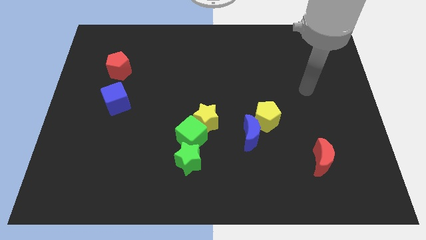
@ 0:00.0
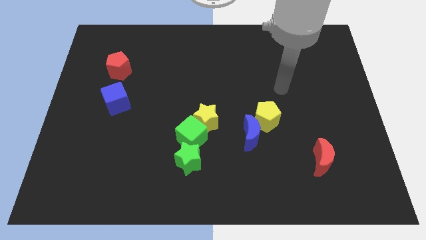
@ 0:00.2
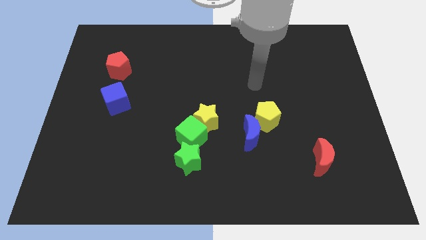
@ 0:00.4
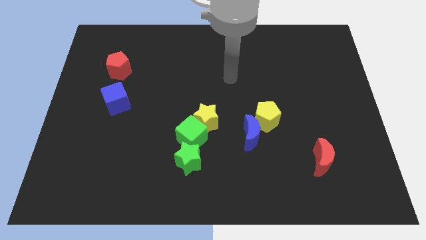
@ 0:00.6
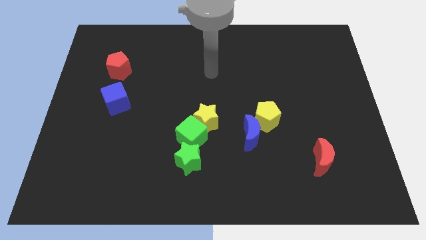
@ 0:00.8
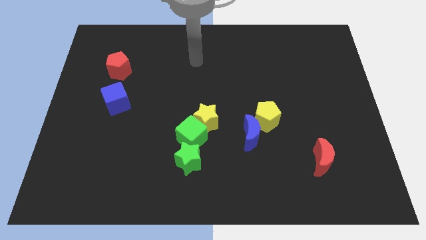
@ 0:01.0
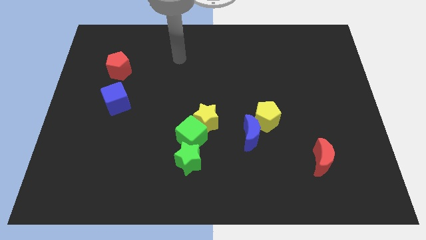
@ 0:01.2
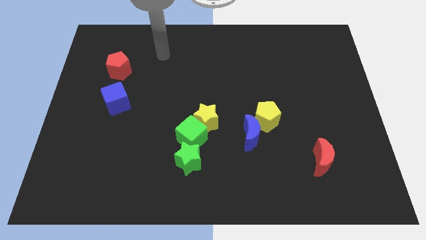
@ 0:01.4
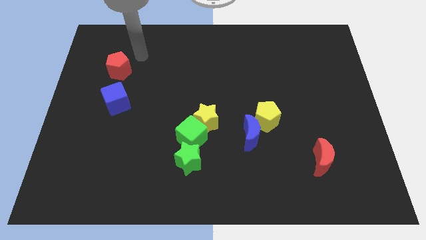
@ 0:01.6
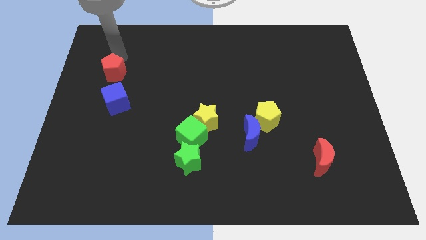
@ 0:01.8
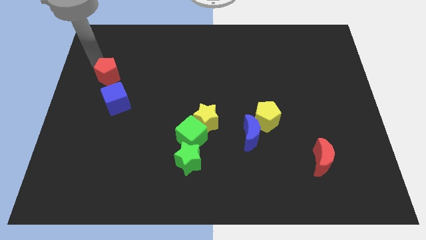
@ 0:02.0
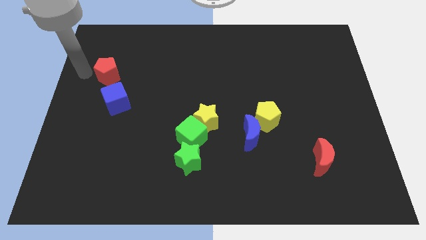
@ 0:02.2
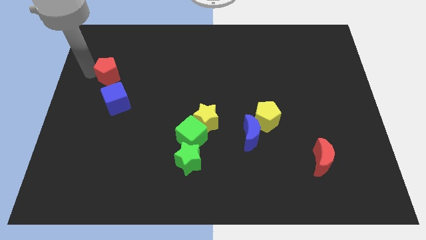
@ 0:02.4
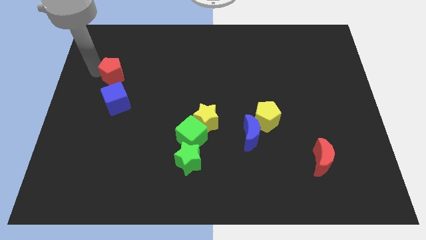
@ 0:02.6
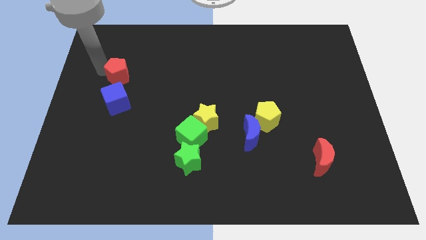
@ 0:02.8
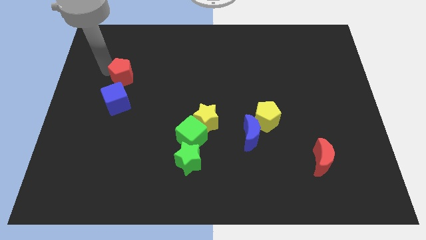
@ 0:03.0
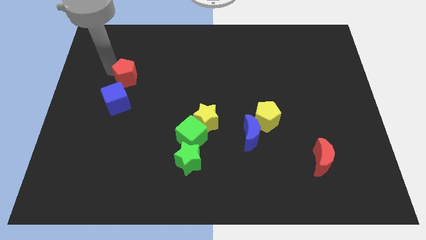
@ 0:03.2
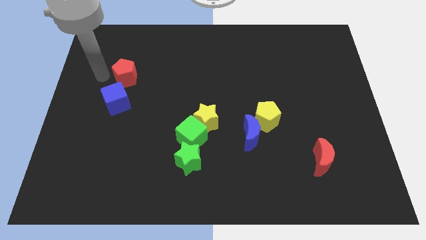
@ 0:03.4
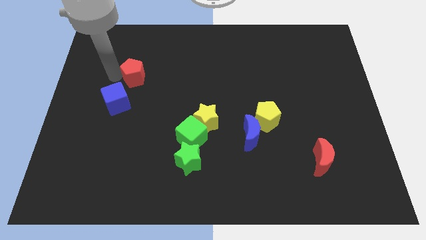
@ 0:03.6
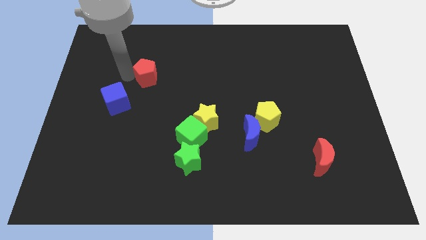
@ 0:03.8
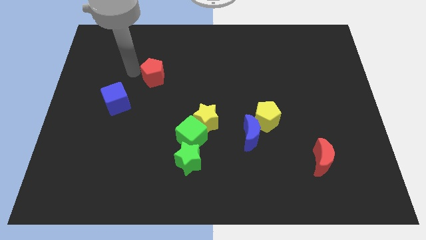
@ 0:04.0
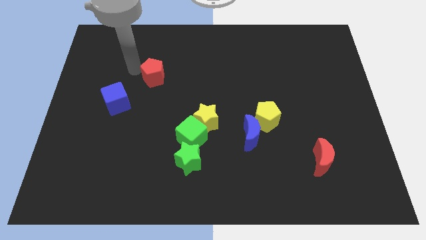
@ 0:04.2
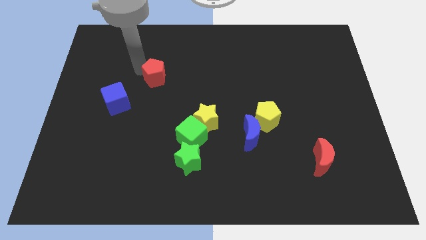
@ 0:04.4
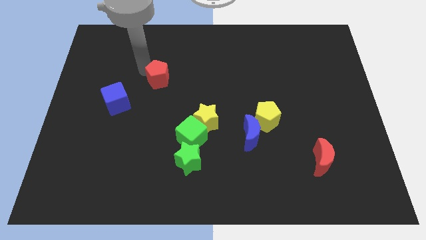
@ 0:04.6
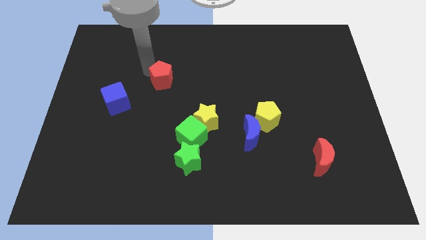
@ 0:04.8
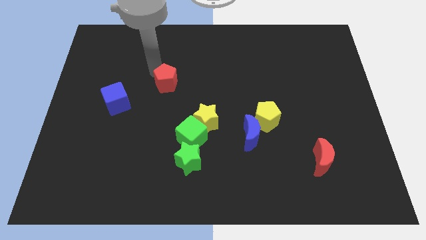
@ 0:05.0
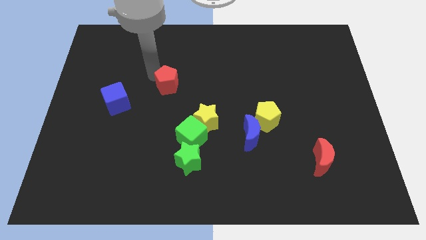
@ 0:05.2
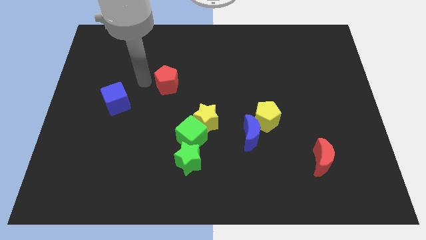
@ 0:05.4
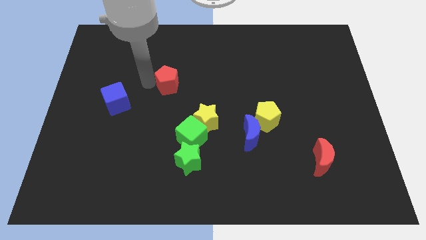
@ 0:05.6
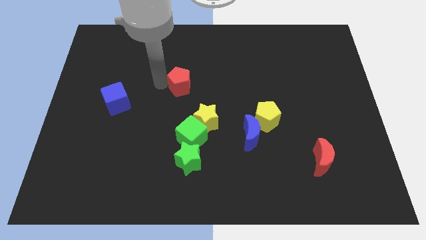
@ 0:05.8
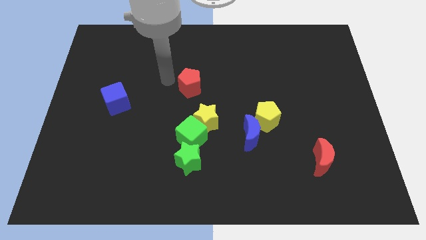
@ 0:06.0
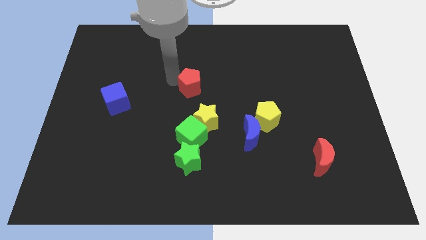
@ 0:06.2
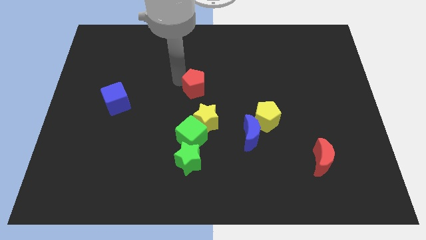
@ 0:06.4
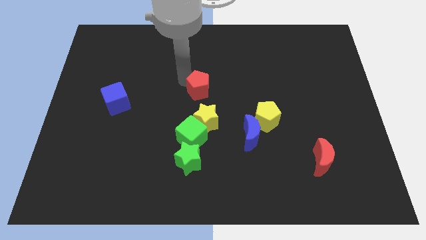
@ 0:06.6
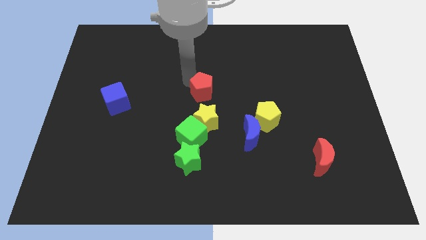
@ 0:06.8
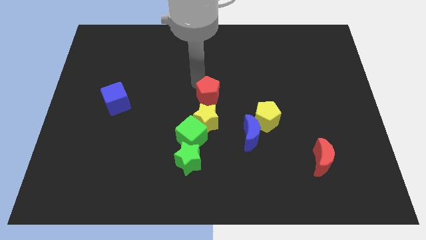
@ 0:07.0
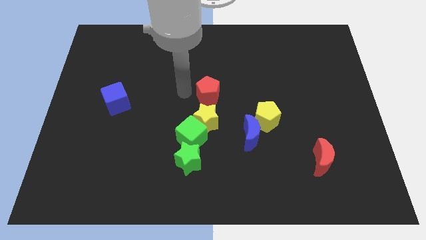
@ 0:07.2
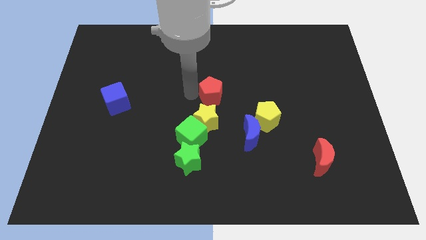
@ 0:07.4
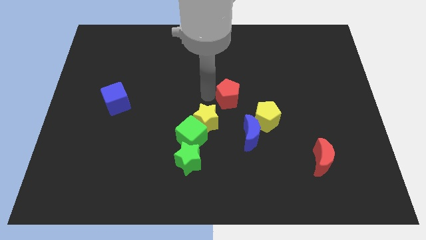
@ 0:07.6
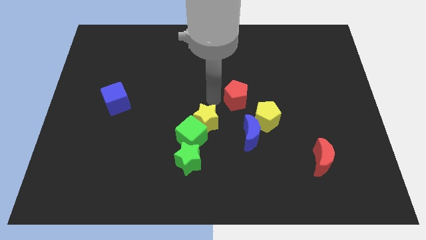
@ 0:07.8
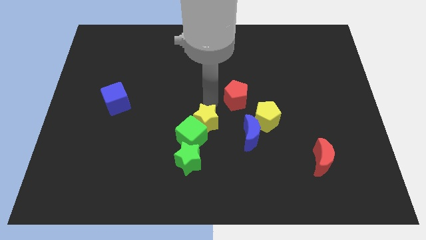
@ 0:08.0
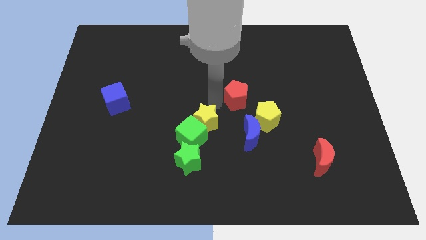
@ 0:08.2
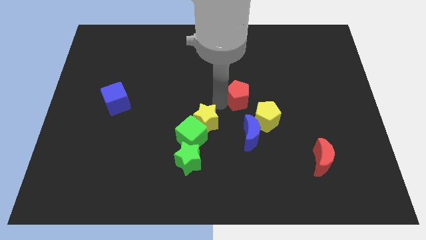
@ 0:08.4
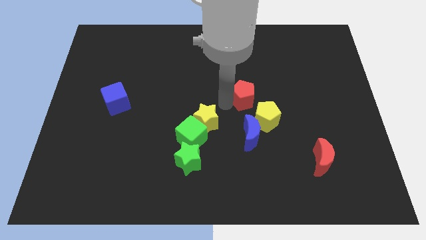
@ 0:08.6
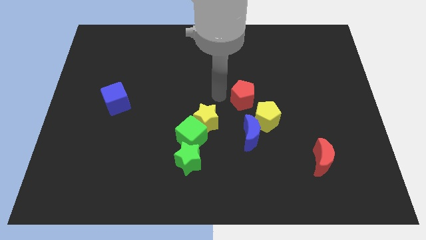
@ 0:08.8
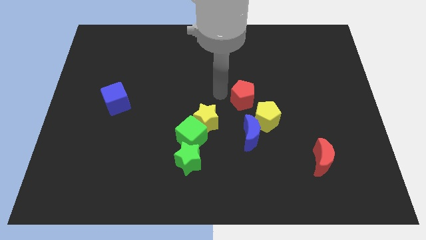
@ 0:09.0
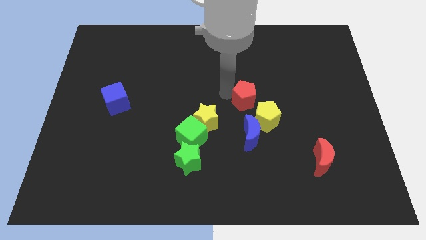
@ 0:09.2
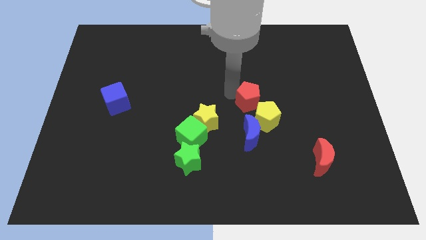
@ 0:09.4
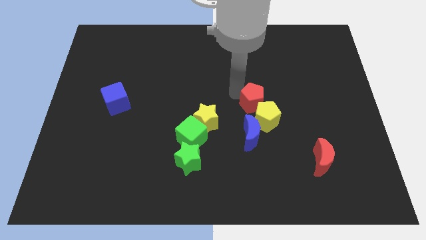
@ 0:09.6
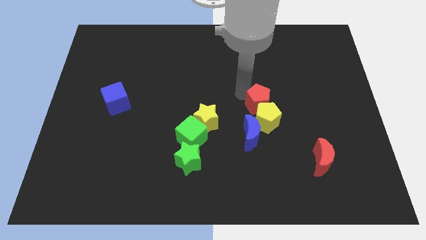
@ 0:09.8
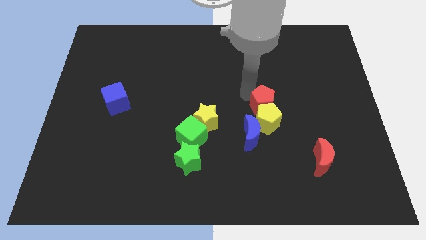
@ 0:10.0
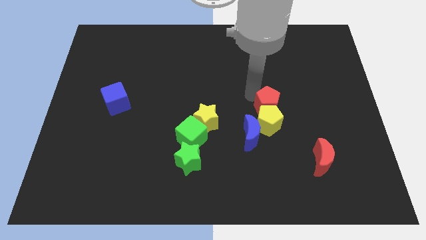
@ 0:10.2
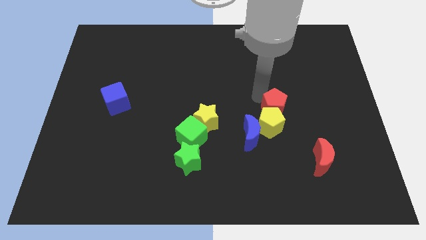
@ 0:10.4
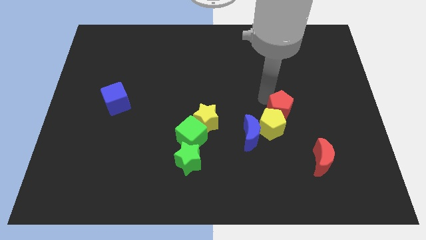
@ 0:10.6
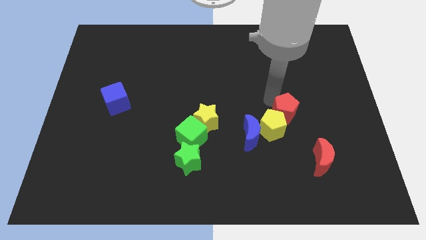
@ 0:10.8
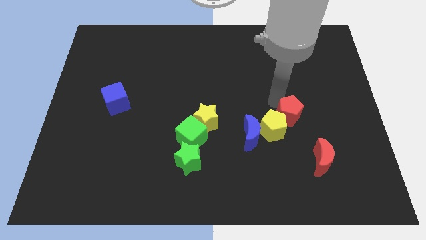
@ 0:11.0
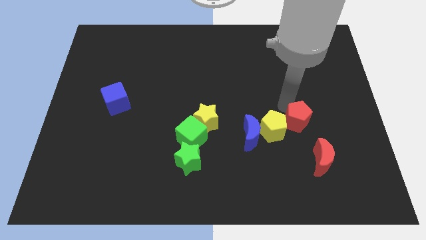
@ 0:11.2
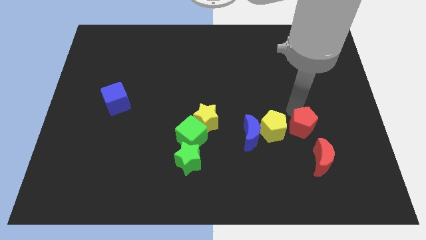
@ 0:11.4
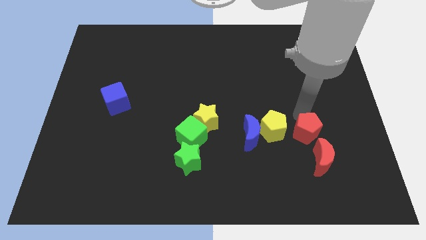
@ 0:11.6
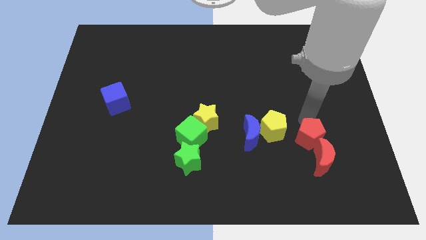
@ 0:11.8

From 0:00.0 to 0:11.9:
move the red pentagon close to the red moon

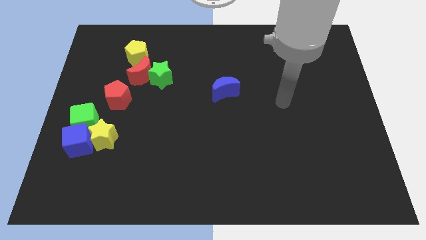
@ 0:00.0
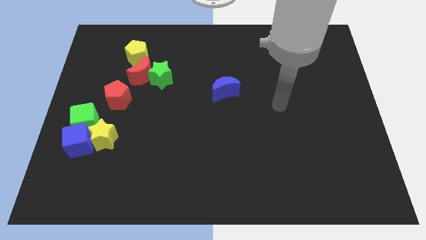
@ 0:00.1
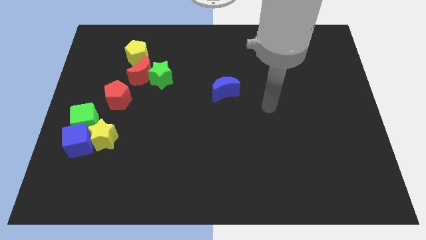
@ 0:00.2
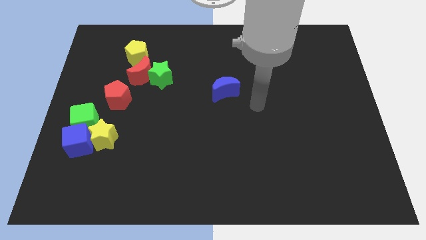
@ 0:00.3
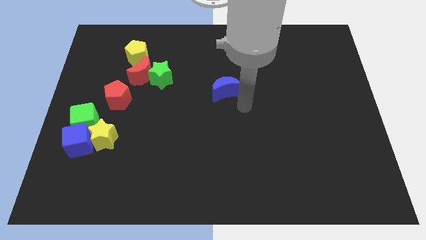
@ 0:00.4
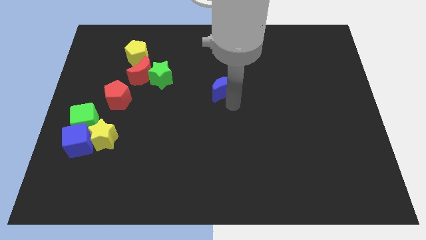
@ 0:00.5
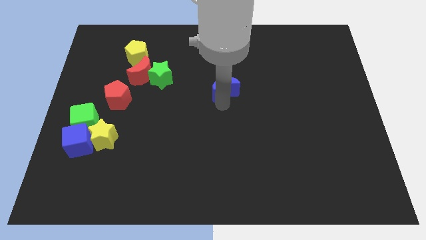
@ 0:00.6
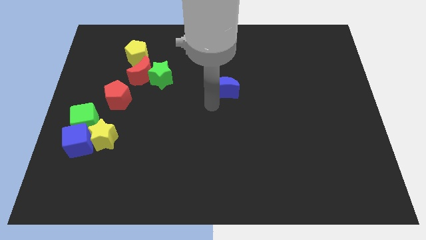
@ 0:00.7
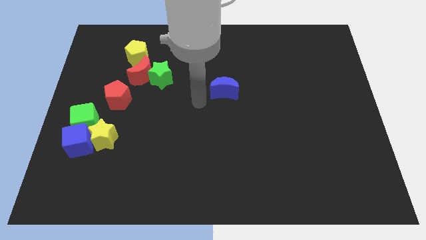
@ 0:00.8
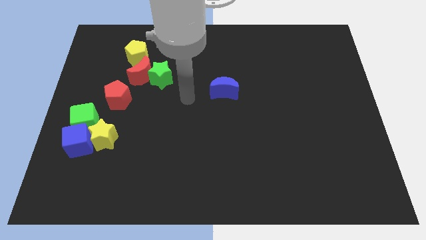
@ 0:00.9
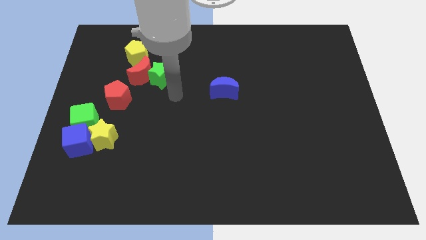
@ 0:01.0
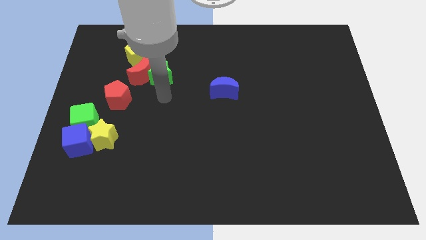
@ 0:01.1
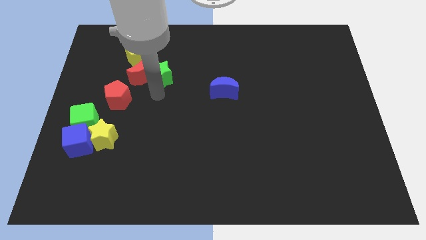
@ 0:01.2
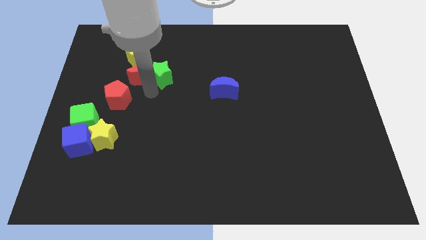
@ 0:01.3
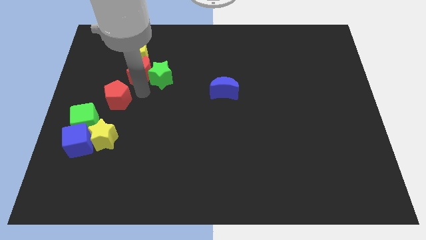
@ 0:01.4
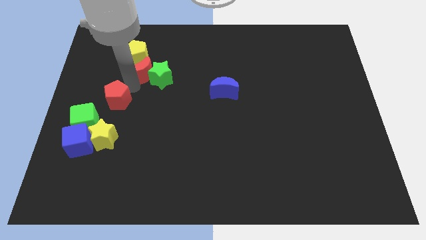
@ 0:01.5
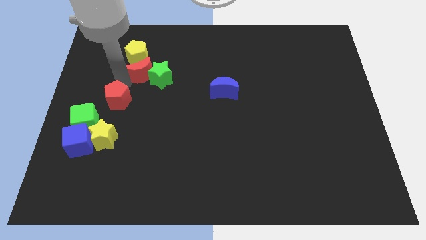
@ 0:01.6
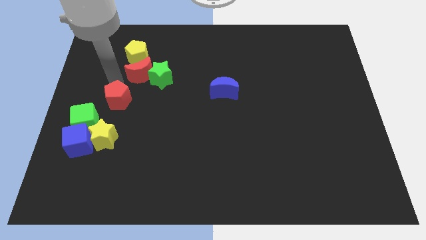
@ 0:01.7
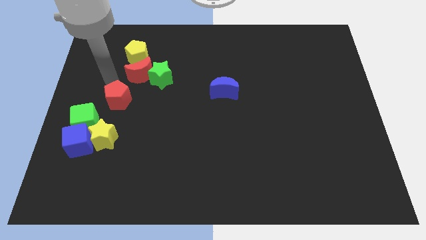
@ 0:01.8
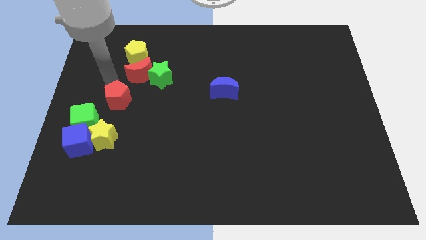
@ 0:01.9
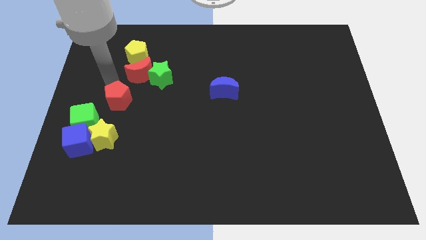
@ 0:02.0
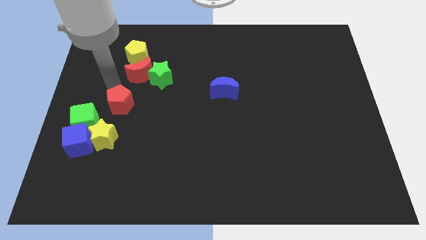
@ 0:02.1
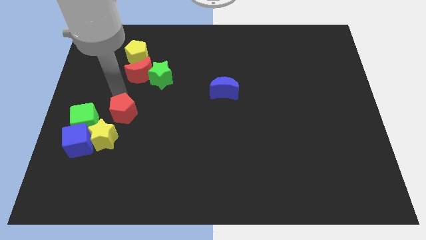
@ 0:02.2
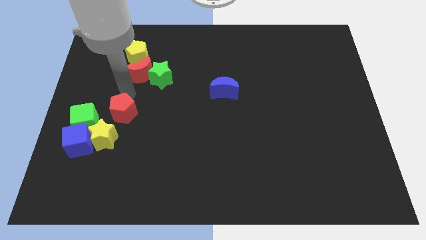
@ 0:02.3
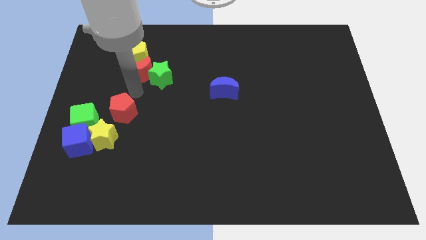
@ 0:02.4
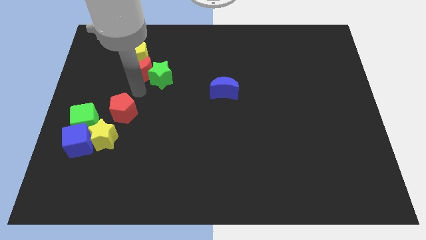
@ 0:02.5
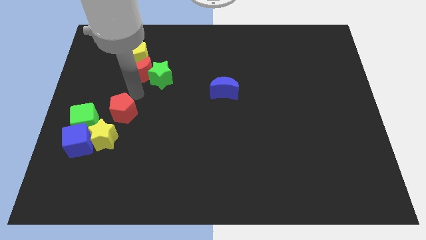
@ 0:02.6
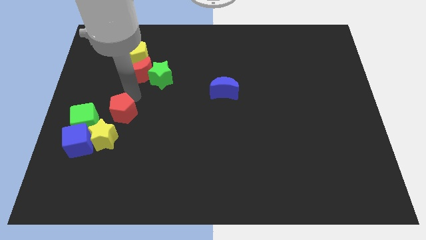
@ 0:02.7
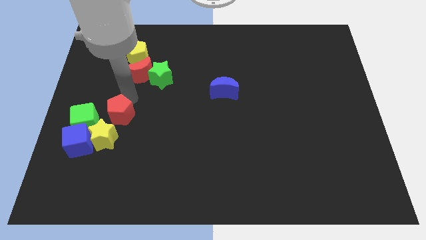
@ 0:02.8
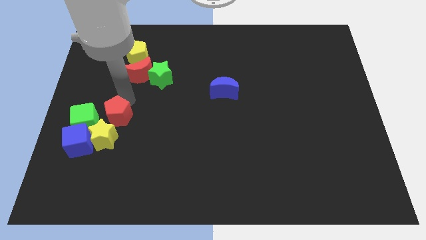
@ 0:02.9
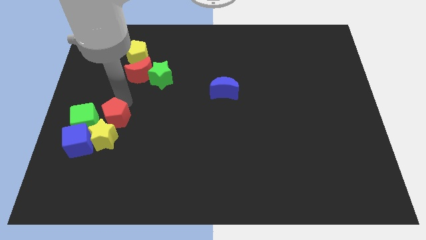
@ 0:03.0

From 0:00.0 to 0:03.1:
move the red pentagon close to the yellow star
